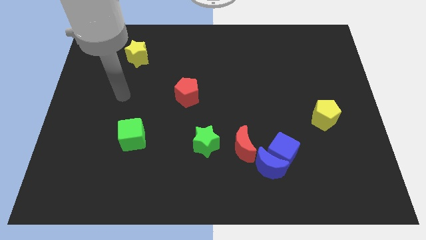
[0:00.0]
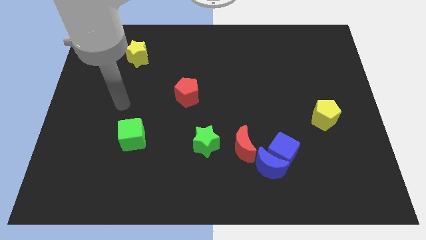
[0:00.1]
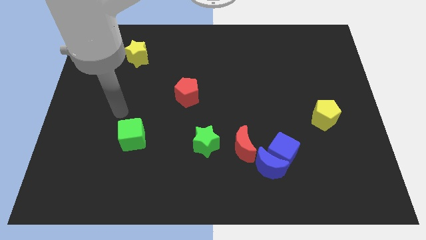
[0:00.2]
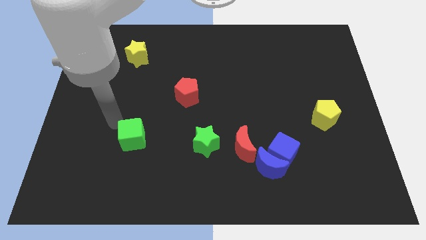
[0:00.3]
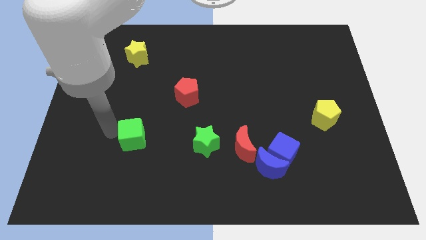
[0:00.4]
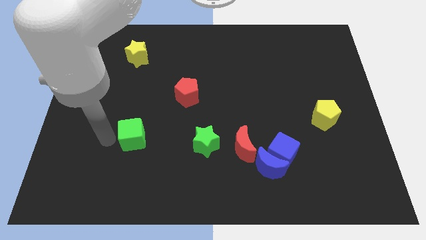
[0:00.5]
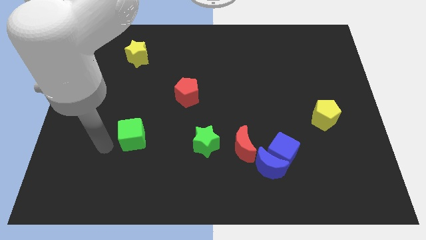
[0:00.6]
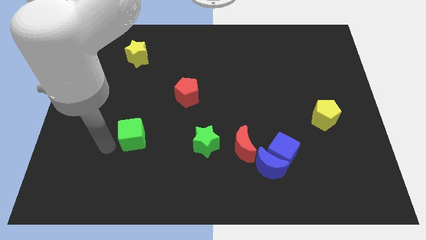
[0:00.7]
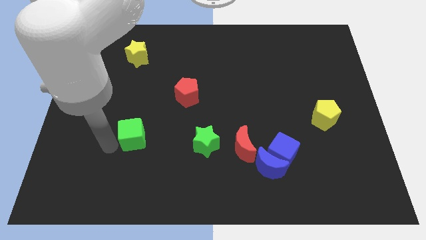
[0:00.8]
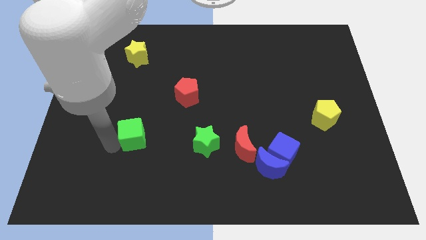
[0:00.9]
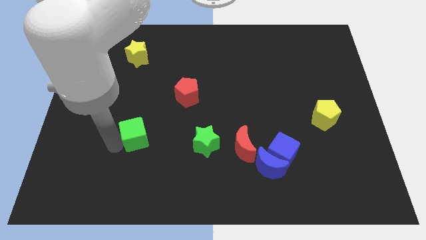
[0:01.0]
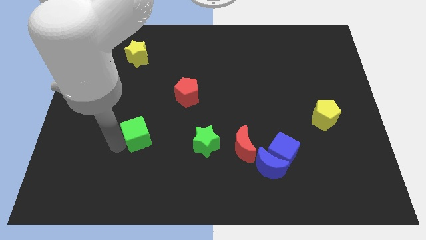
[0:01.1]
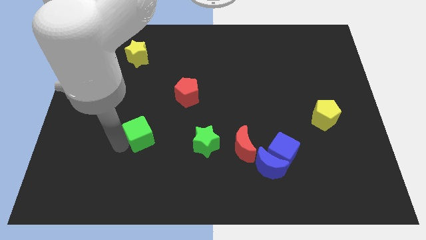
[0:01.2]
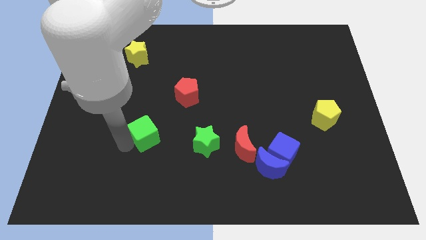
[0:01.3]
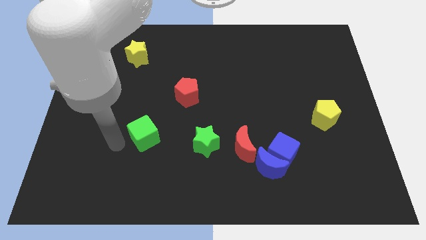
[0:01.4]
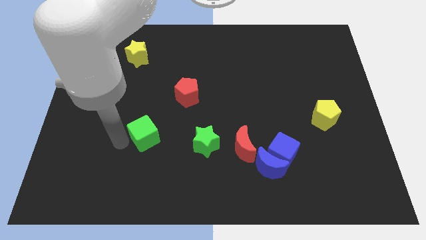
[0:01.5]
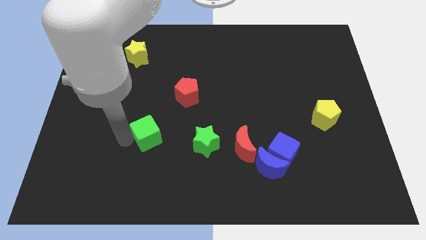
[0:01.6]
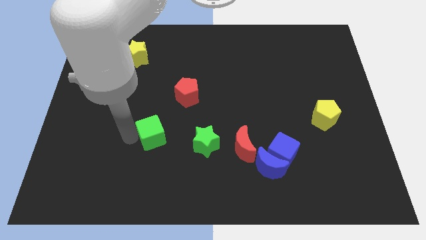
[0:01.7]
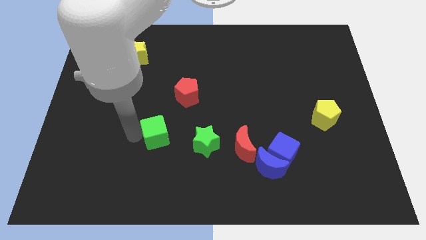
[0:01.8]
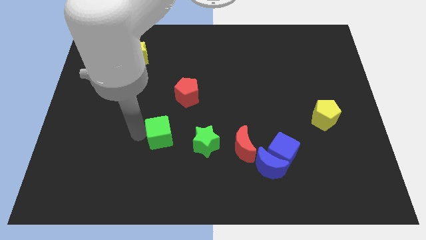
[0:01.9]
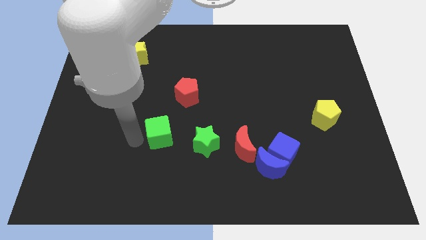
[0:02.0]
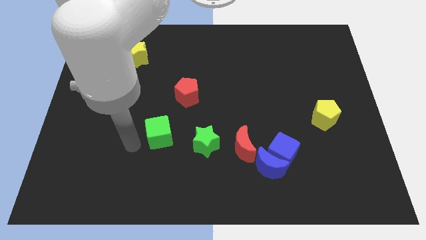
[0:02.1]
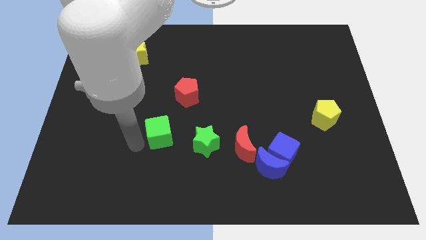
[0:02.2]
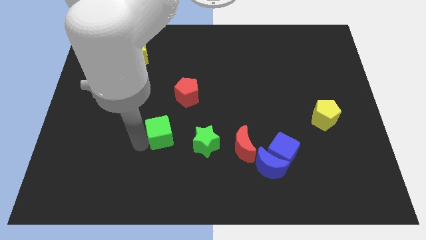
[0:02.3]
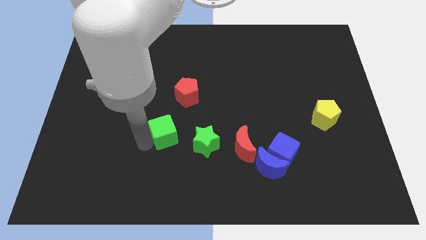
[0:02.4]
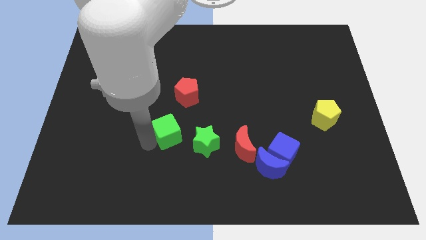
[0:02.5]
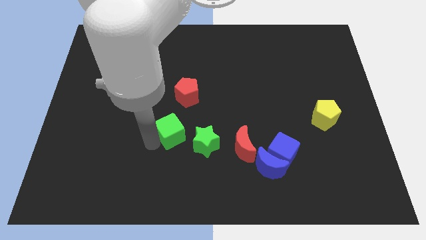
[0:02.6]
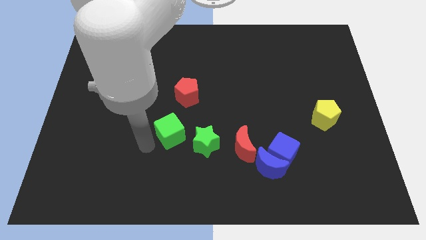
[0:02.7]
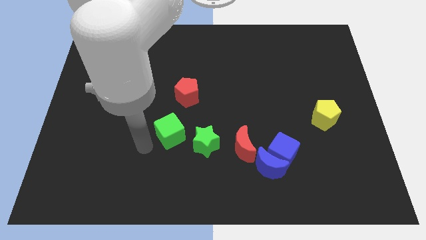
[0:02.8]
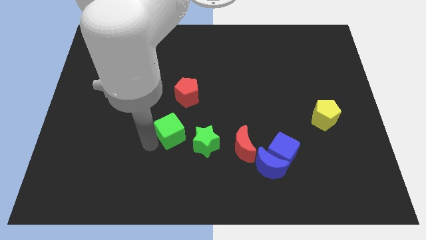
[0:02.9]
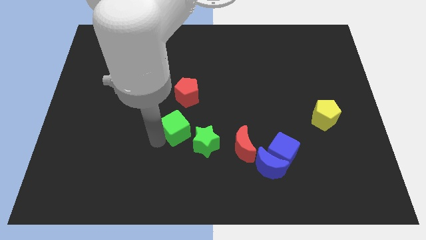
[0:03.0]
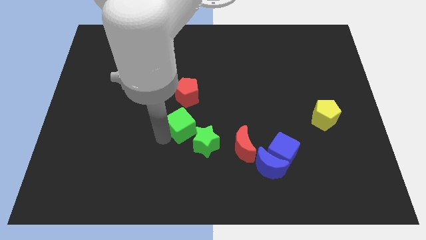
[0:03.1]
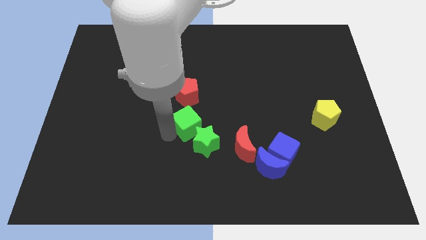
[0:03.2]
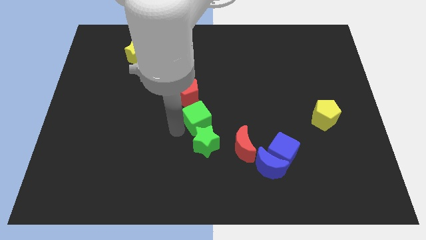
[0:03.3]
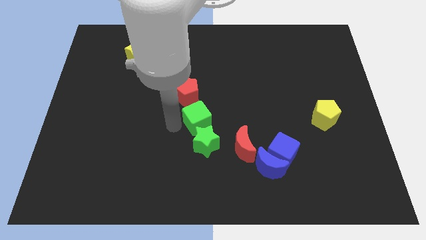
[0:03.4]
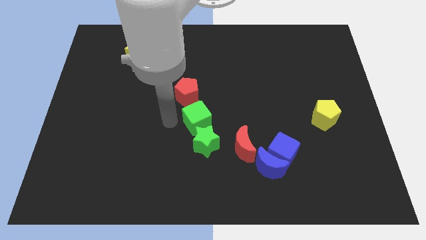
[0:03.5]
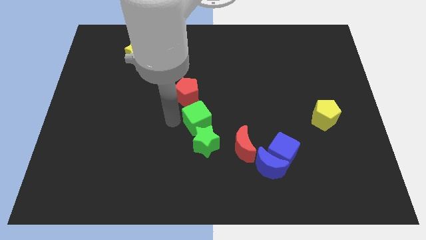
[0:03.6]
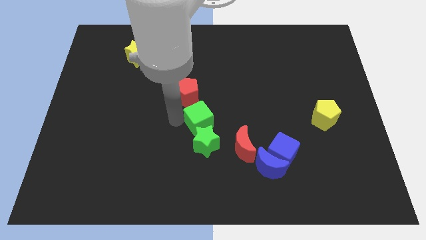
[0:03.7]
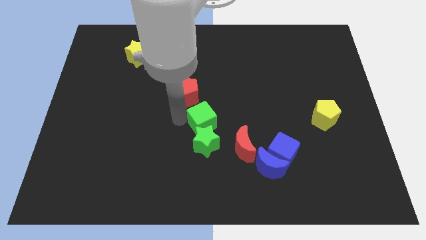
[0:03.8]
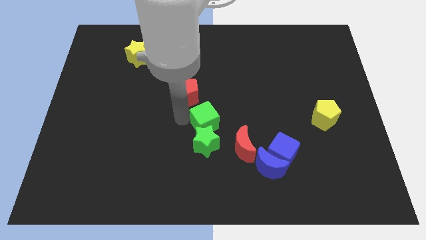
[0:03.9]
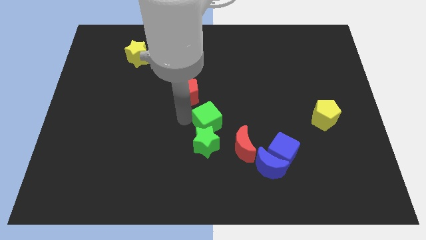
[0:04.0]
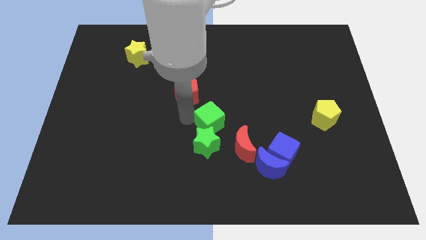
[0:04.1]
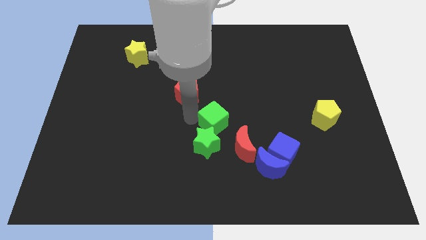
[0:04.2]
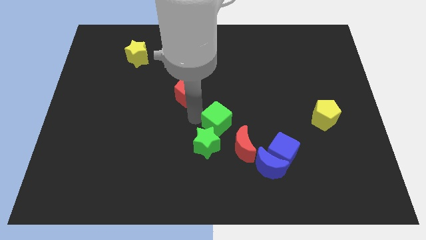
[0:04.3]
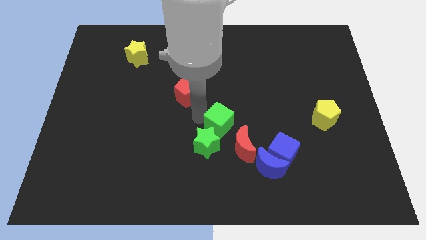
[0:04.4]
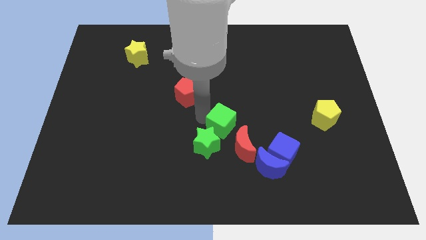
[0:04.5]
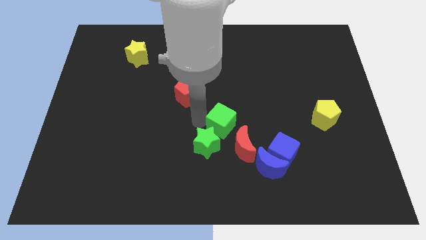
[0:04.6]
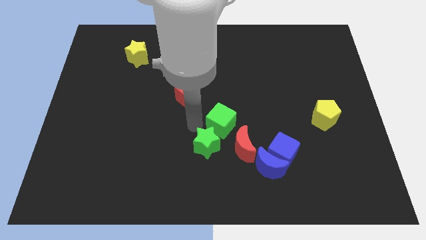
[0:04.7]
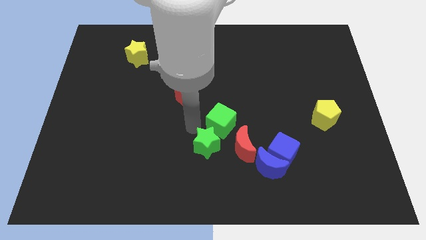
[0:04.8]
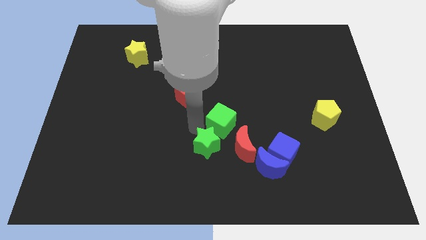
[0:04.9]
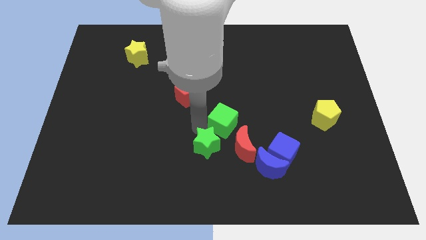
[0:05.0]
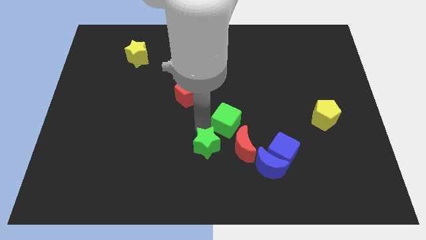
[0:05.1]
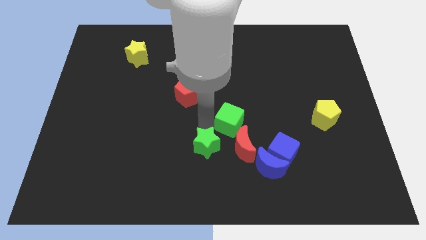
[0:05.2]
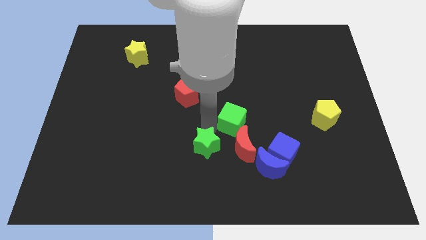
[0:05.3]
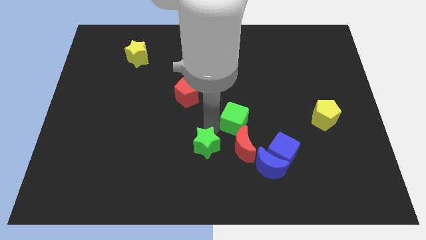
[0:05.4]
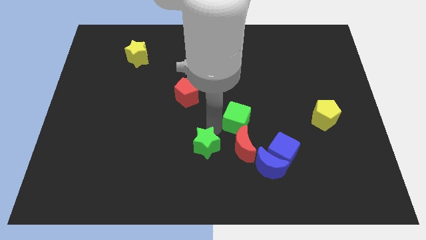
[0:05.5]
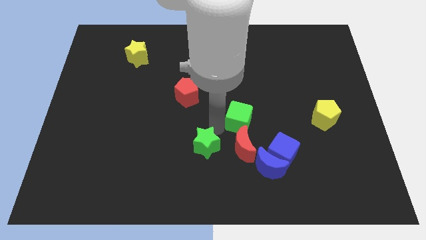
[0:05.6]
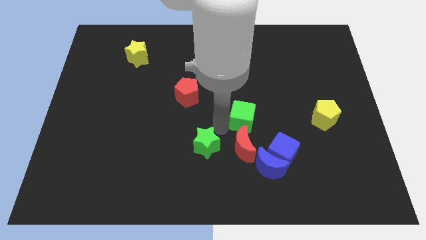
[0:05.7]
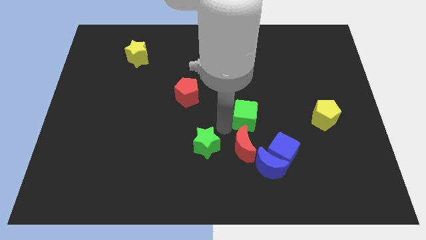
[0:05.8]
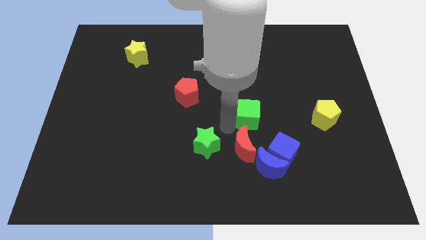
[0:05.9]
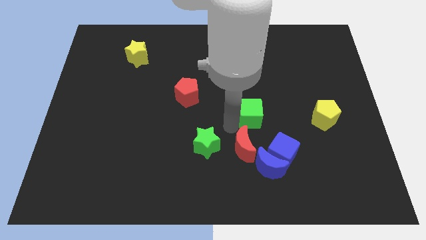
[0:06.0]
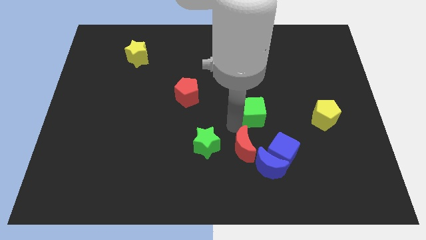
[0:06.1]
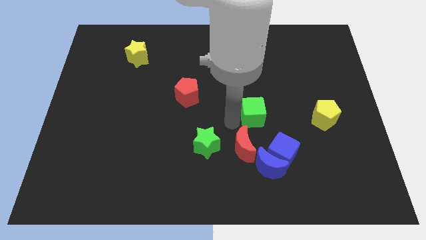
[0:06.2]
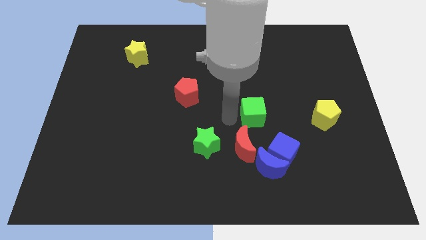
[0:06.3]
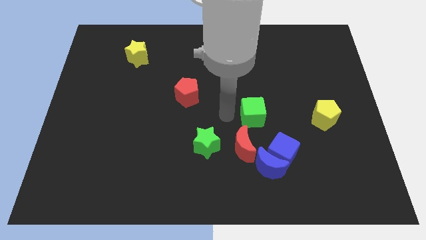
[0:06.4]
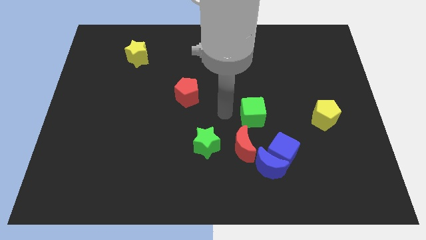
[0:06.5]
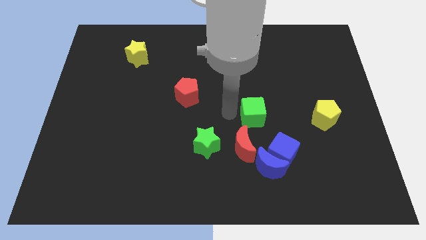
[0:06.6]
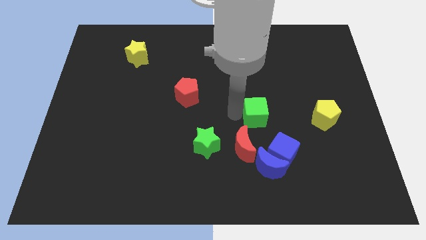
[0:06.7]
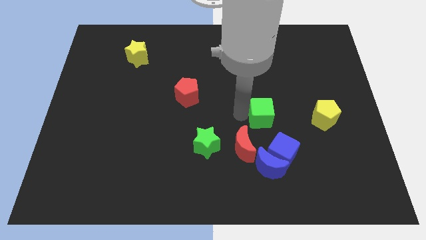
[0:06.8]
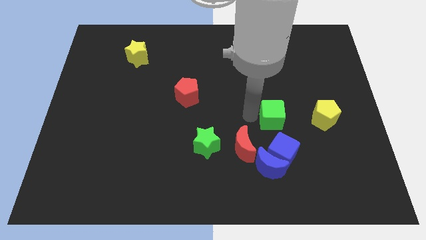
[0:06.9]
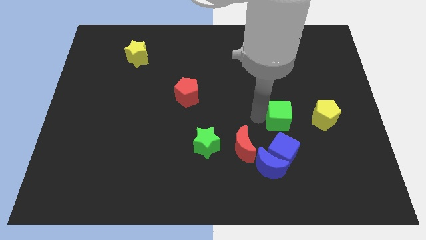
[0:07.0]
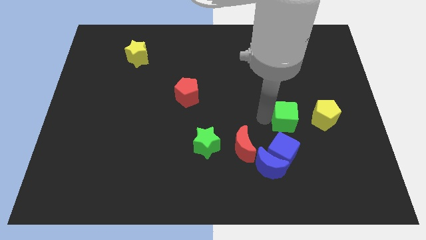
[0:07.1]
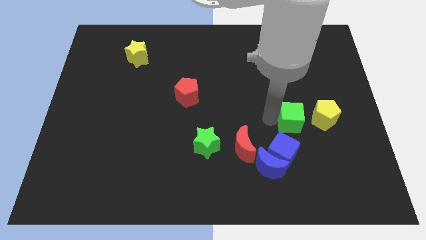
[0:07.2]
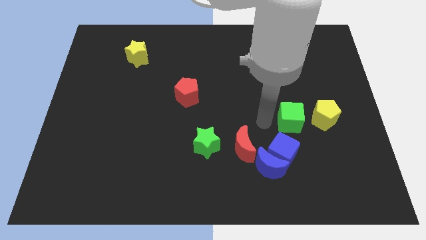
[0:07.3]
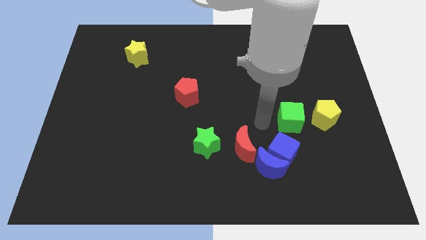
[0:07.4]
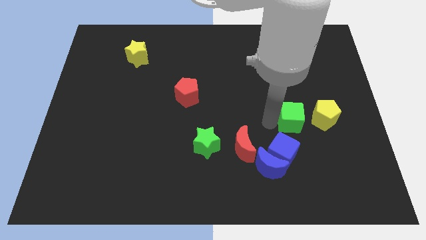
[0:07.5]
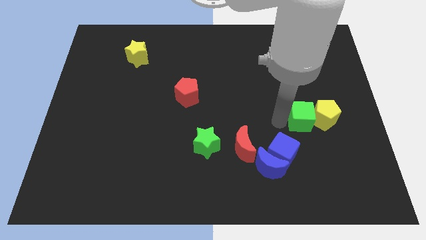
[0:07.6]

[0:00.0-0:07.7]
put the green cube towards the yellow pentagon
